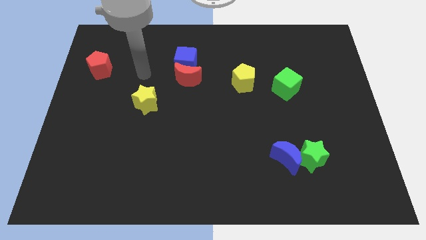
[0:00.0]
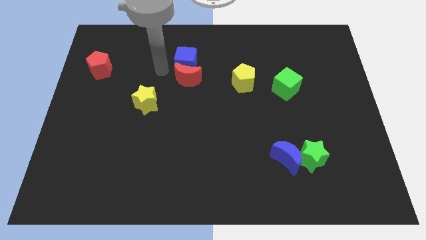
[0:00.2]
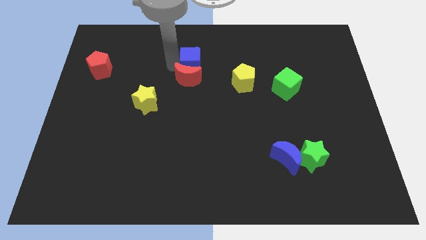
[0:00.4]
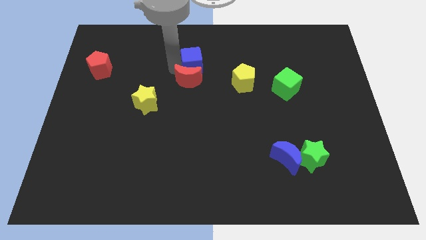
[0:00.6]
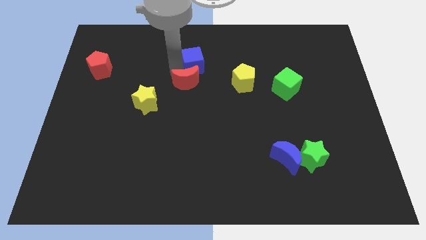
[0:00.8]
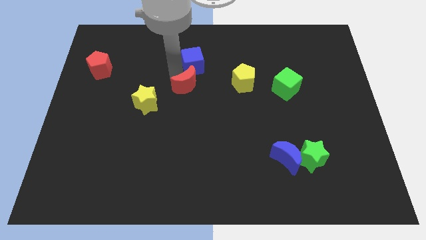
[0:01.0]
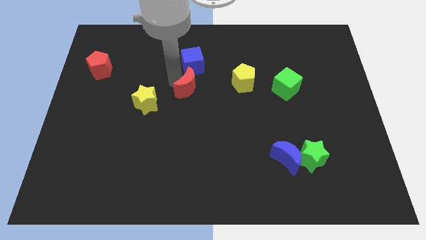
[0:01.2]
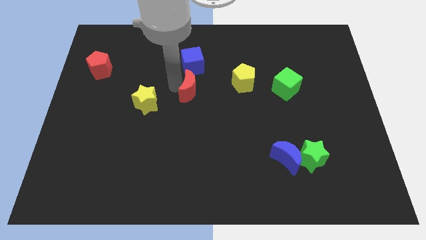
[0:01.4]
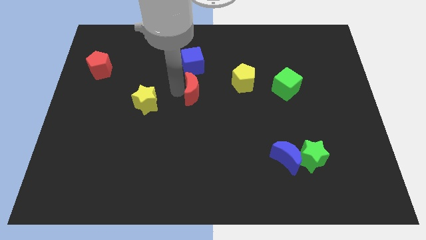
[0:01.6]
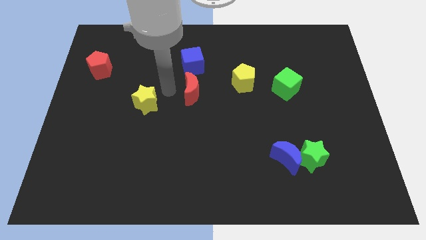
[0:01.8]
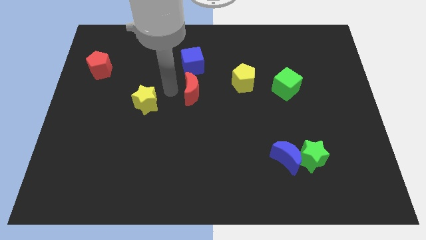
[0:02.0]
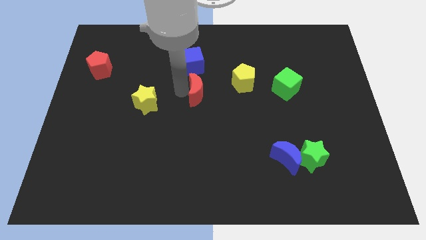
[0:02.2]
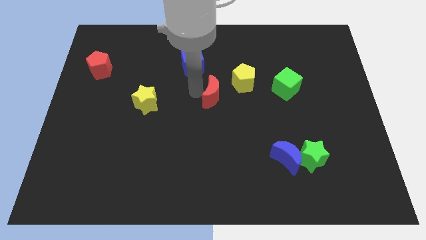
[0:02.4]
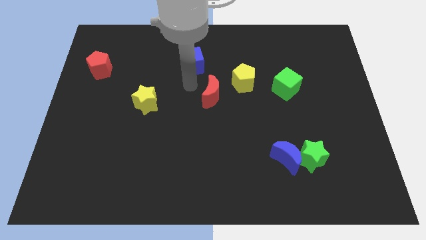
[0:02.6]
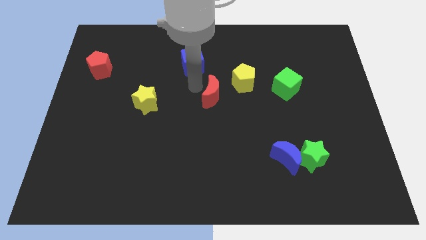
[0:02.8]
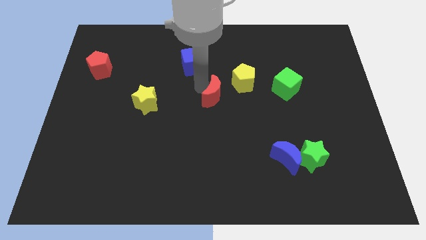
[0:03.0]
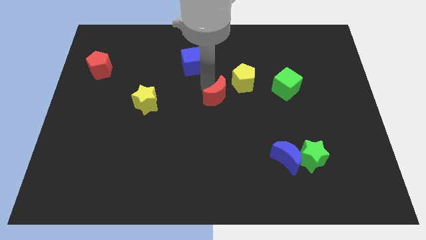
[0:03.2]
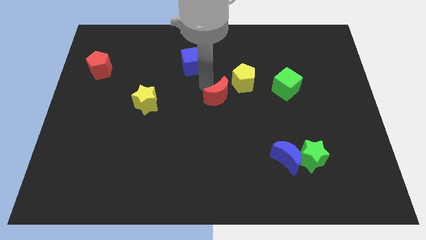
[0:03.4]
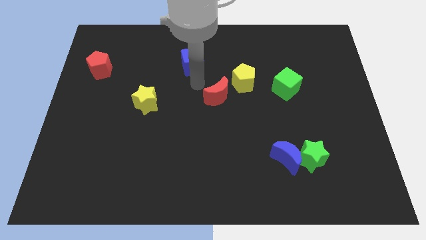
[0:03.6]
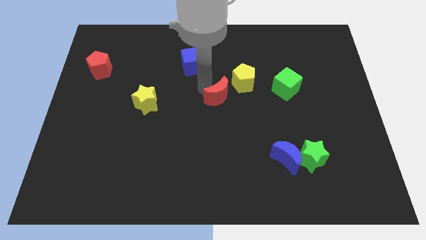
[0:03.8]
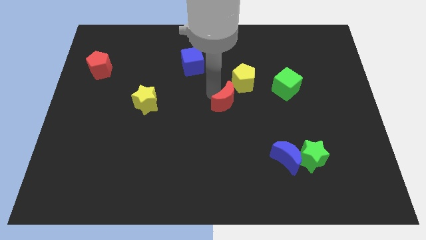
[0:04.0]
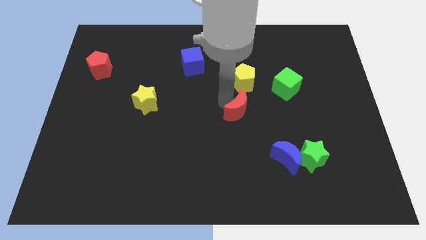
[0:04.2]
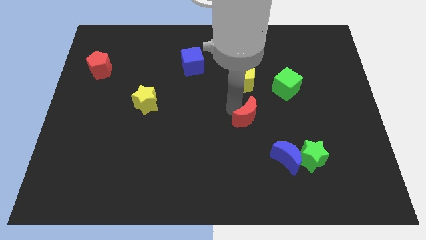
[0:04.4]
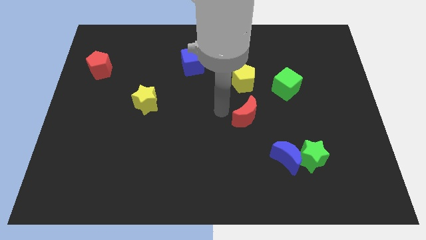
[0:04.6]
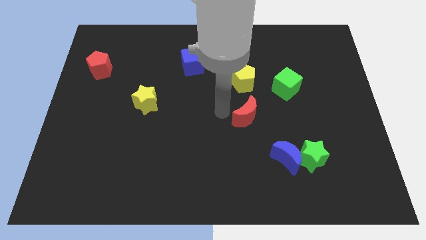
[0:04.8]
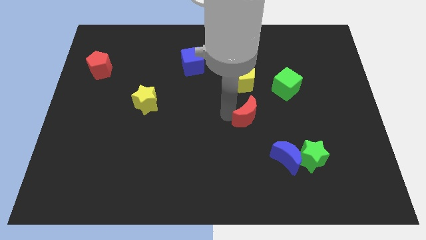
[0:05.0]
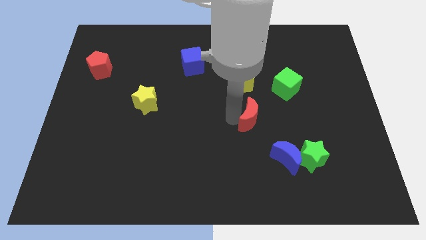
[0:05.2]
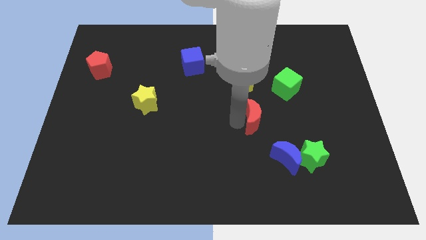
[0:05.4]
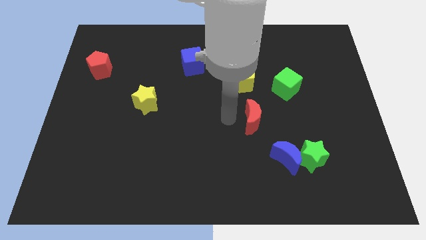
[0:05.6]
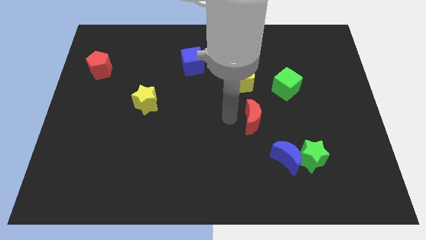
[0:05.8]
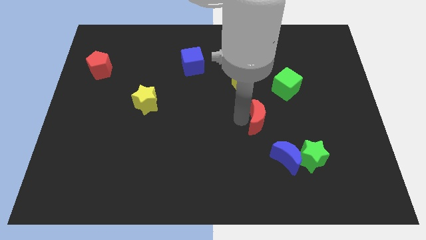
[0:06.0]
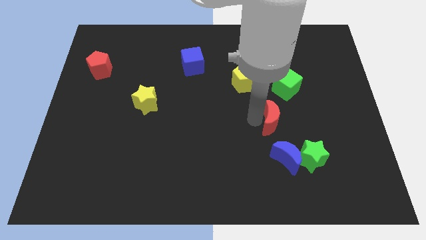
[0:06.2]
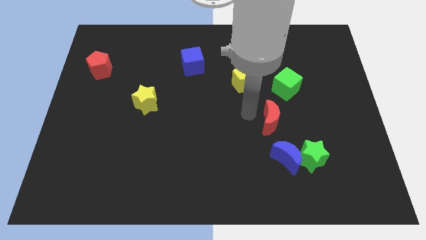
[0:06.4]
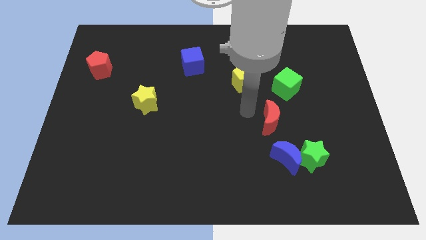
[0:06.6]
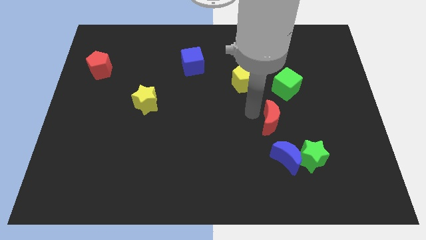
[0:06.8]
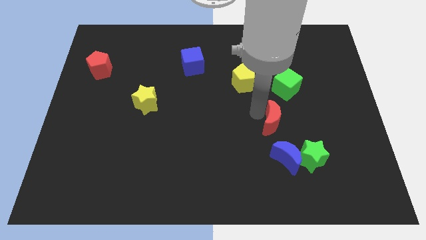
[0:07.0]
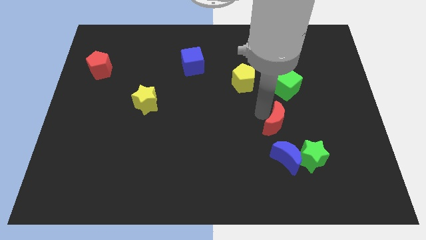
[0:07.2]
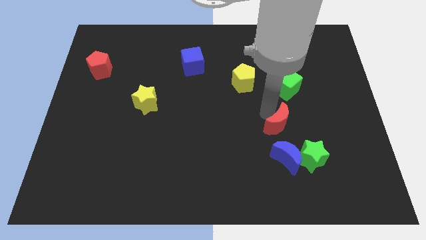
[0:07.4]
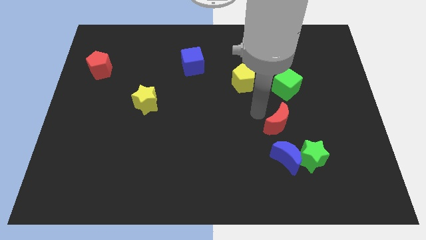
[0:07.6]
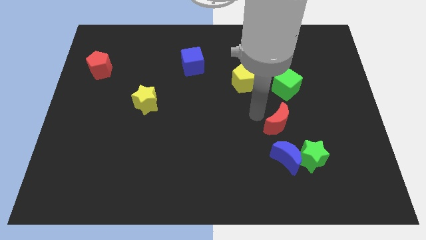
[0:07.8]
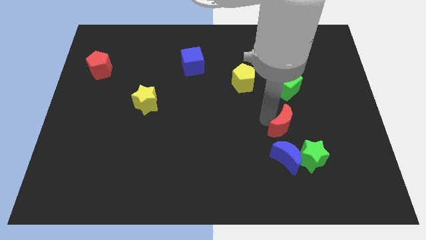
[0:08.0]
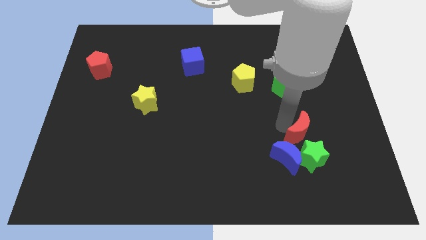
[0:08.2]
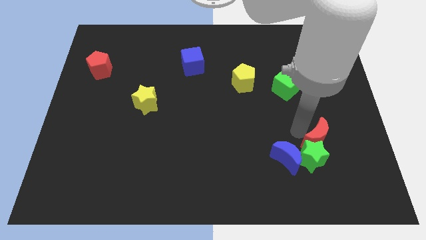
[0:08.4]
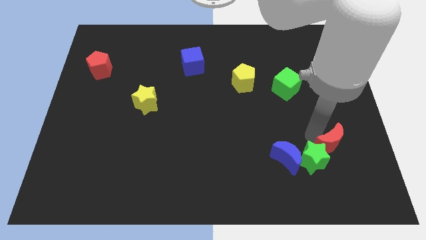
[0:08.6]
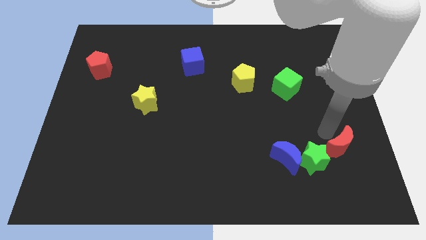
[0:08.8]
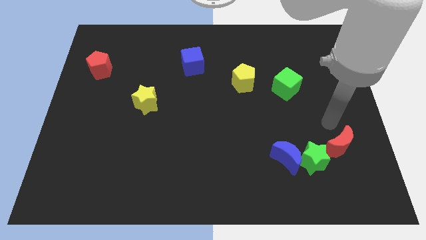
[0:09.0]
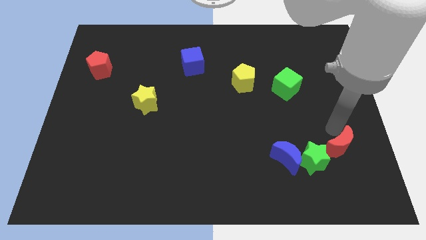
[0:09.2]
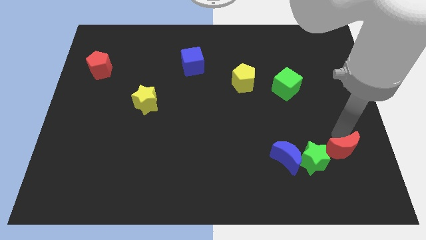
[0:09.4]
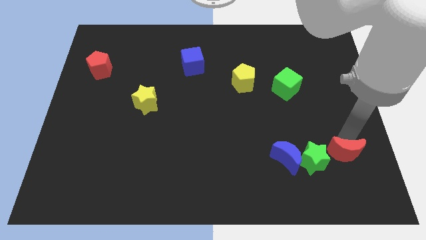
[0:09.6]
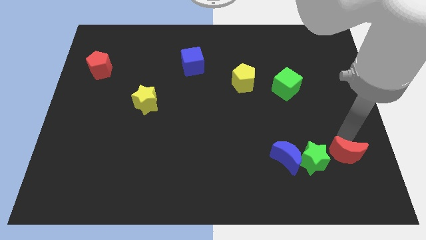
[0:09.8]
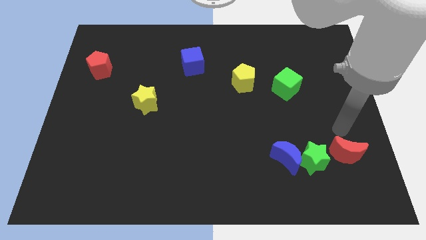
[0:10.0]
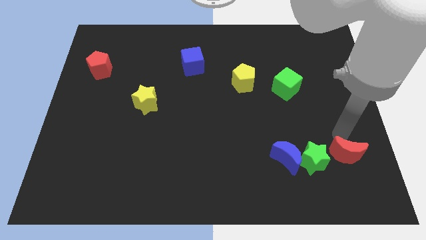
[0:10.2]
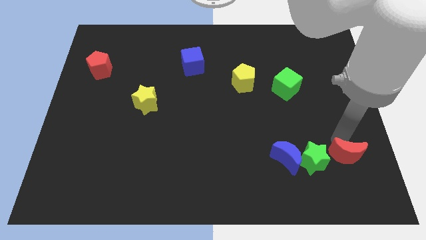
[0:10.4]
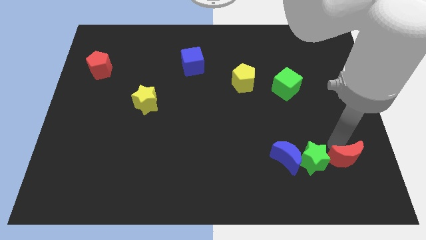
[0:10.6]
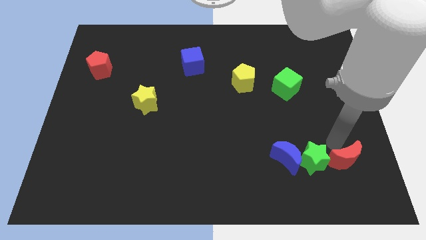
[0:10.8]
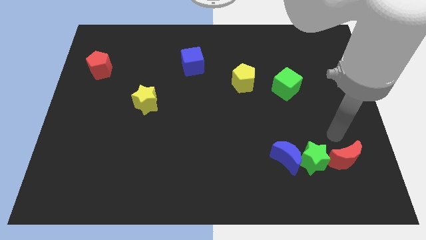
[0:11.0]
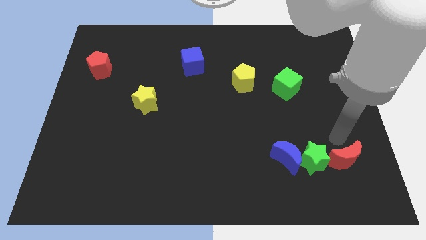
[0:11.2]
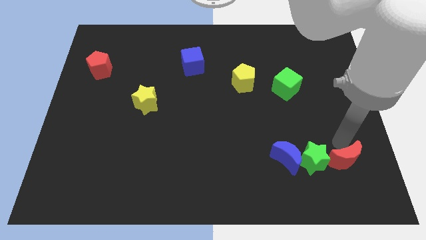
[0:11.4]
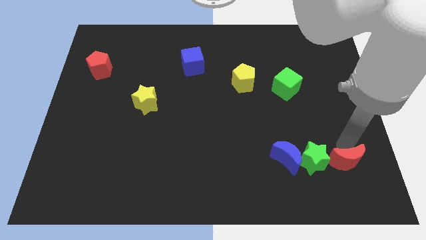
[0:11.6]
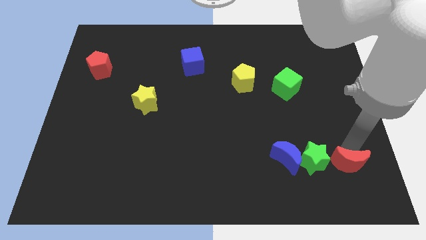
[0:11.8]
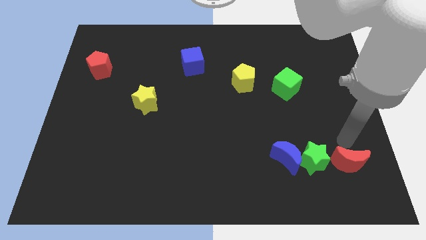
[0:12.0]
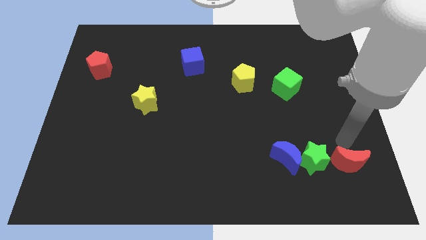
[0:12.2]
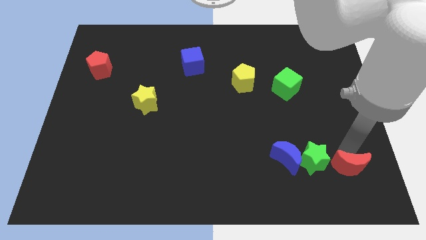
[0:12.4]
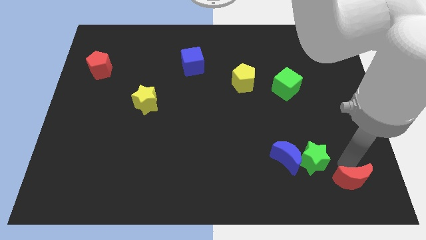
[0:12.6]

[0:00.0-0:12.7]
slide the red moon to the bottom right
